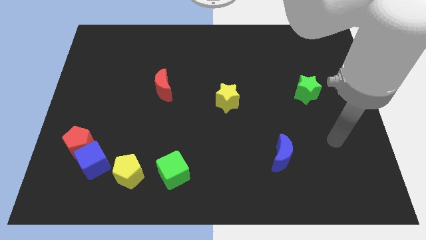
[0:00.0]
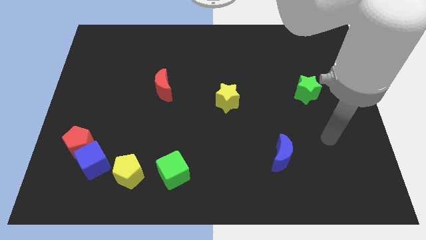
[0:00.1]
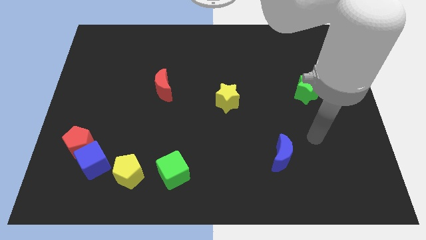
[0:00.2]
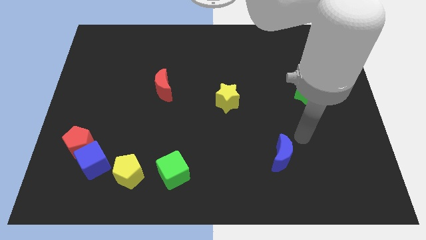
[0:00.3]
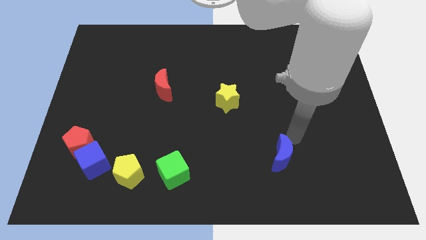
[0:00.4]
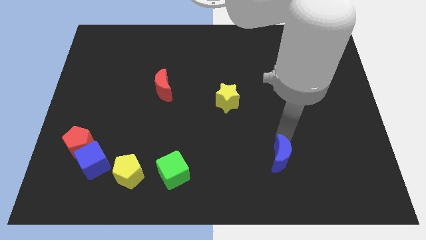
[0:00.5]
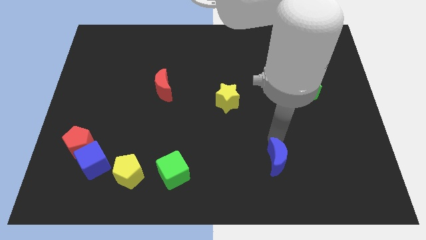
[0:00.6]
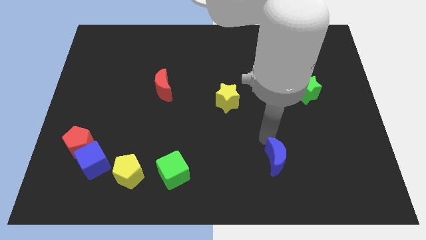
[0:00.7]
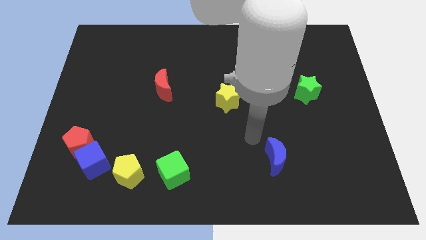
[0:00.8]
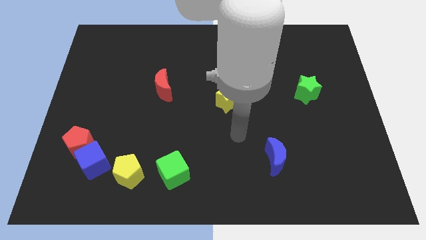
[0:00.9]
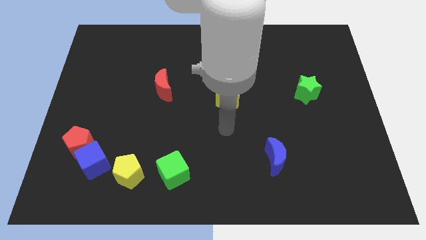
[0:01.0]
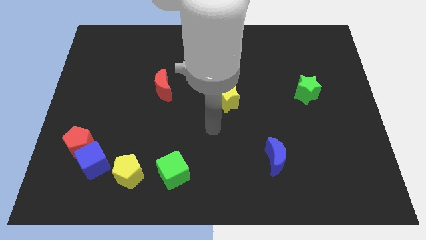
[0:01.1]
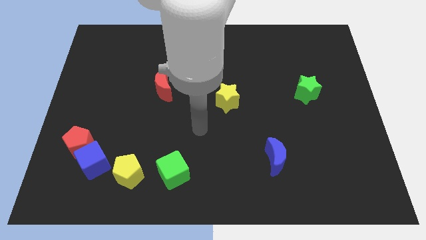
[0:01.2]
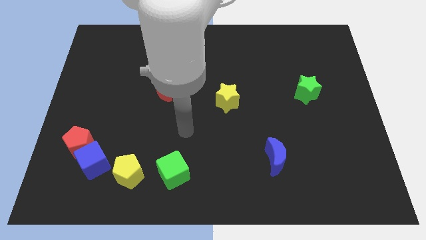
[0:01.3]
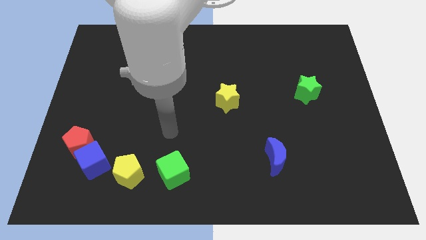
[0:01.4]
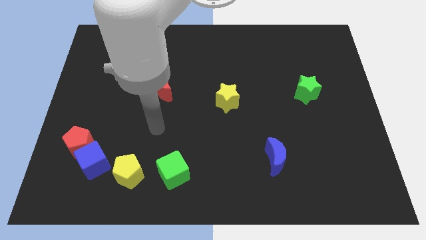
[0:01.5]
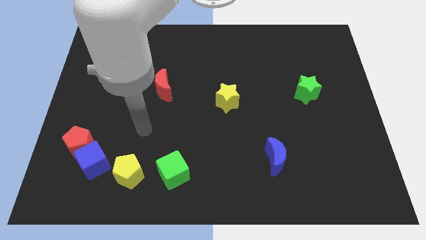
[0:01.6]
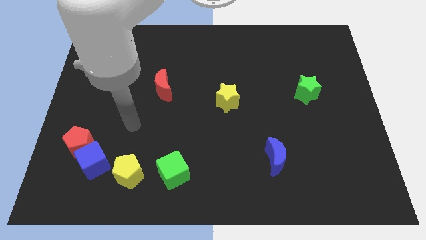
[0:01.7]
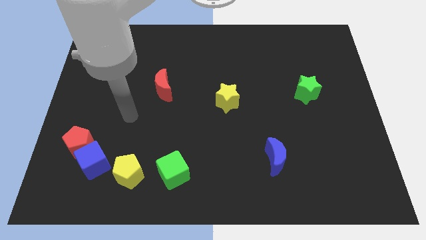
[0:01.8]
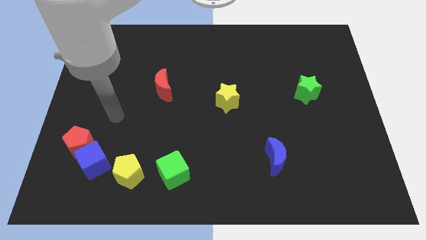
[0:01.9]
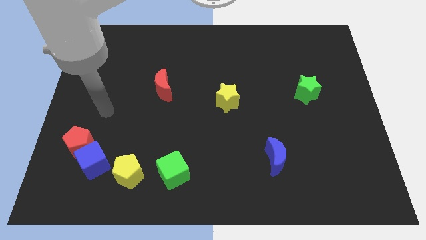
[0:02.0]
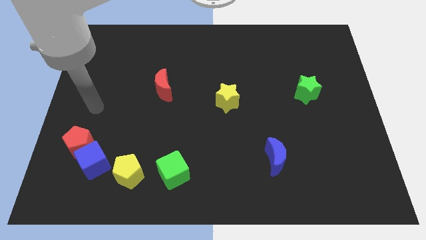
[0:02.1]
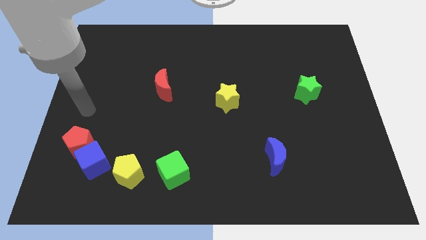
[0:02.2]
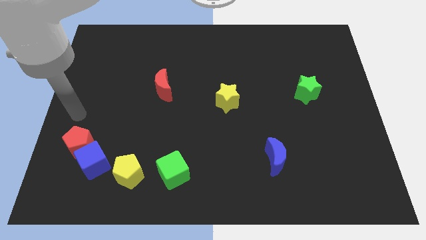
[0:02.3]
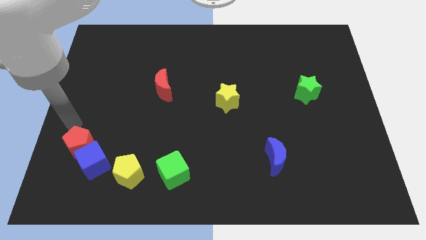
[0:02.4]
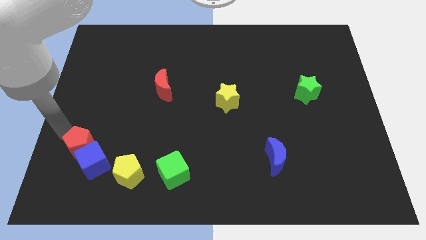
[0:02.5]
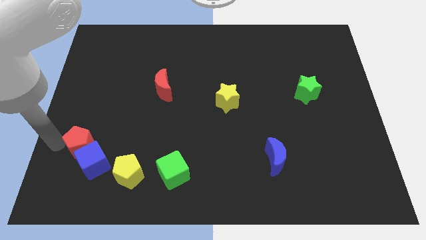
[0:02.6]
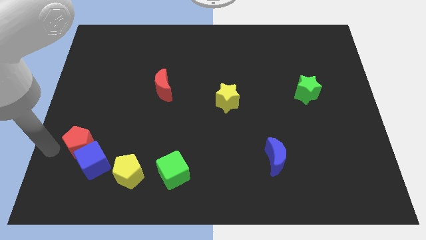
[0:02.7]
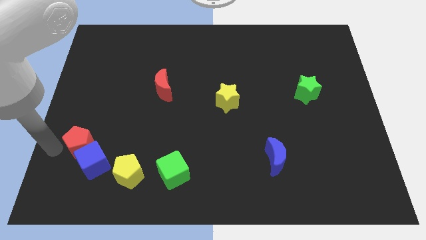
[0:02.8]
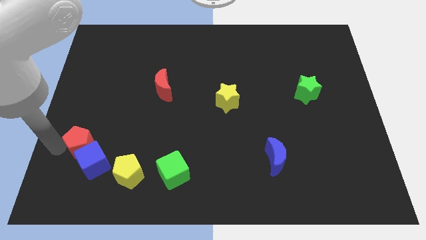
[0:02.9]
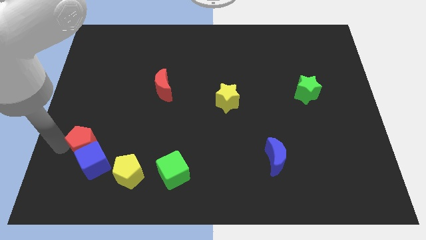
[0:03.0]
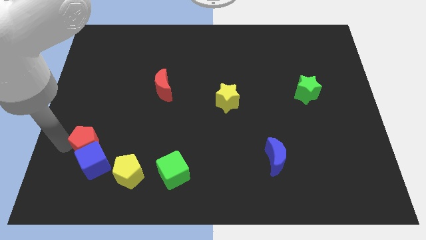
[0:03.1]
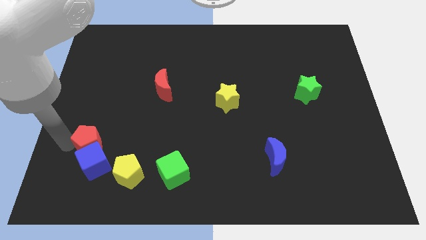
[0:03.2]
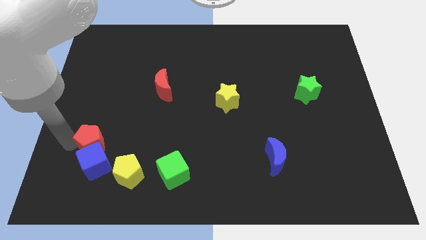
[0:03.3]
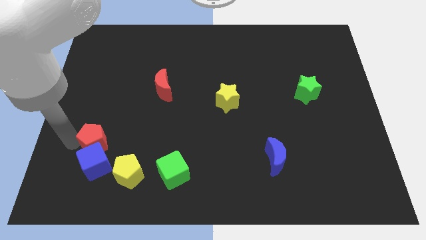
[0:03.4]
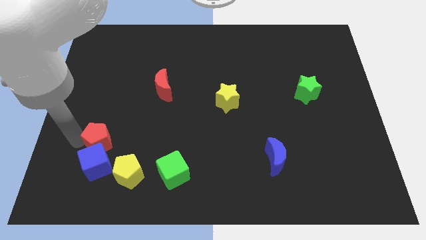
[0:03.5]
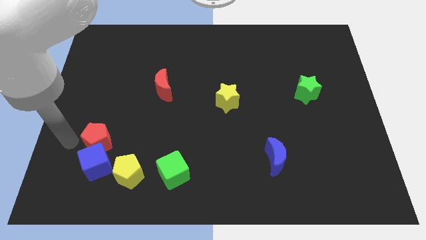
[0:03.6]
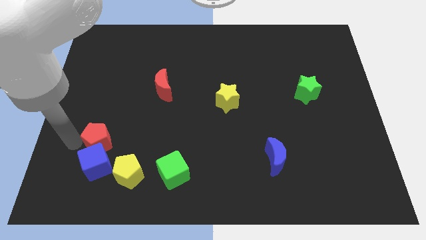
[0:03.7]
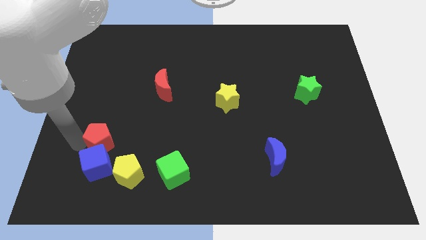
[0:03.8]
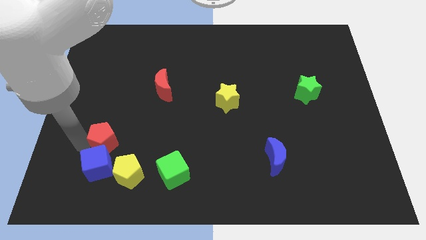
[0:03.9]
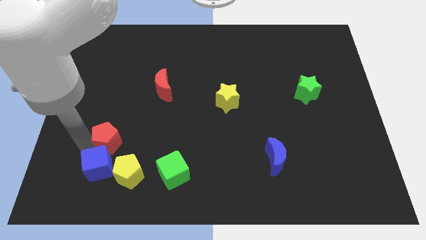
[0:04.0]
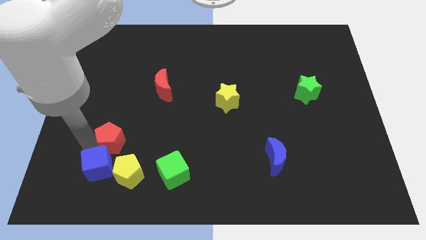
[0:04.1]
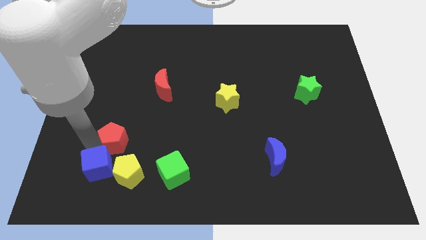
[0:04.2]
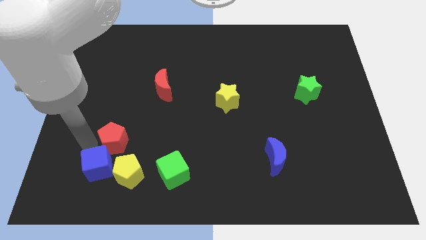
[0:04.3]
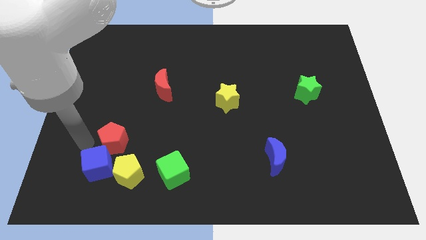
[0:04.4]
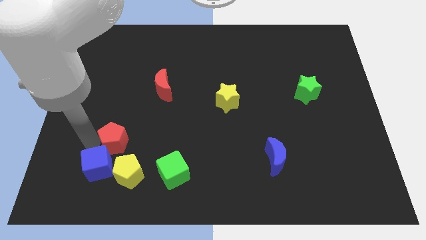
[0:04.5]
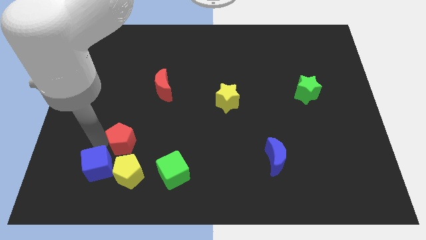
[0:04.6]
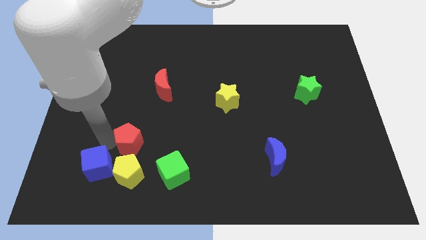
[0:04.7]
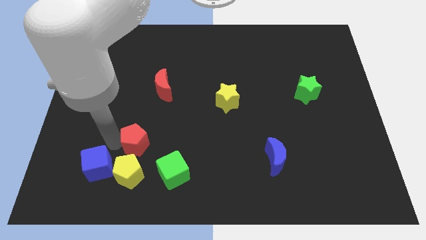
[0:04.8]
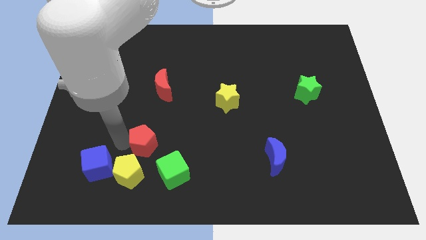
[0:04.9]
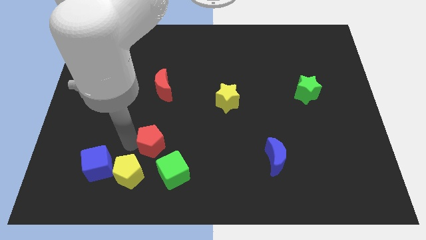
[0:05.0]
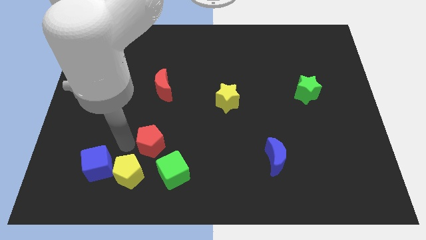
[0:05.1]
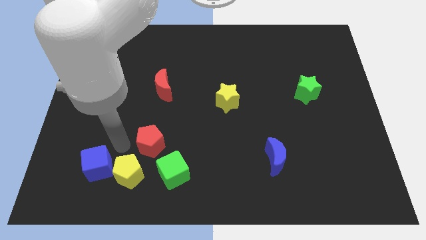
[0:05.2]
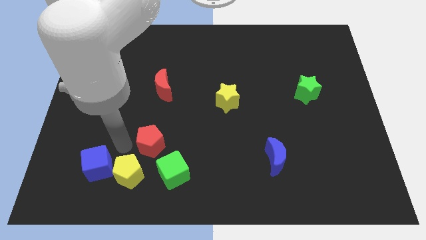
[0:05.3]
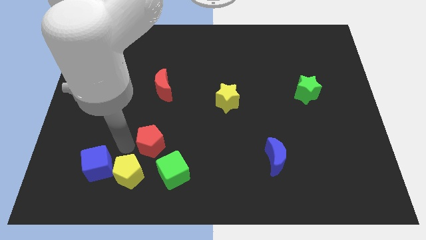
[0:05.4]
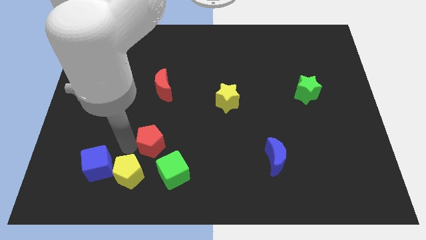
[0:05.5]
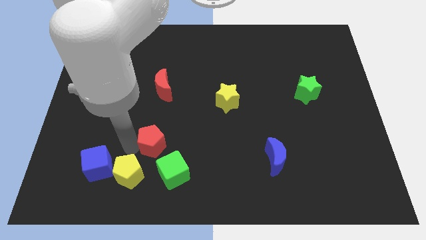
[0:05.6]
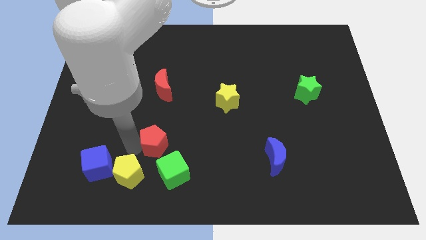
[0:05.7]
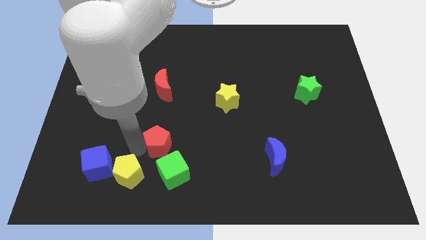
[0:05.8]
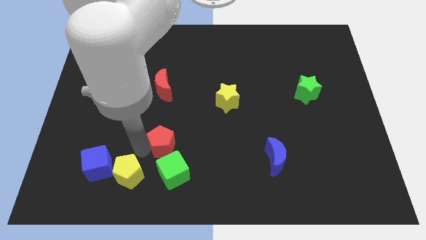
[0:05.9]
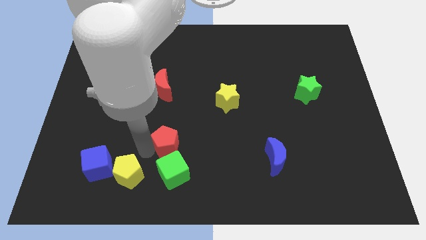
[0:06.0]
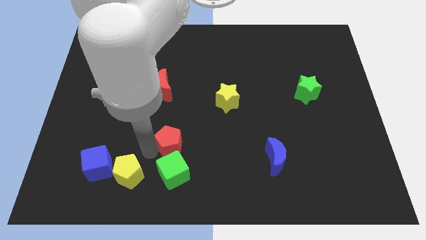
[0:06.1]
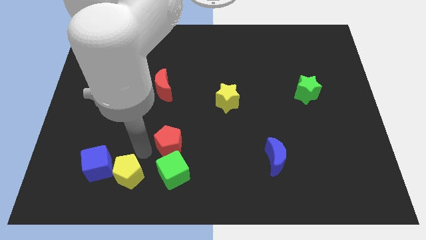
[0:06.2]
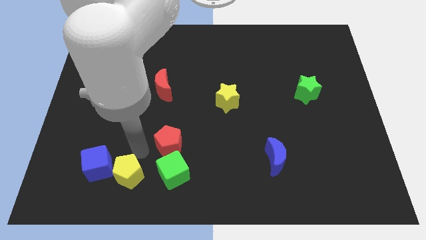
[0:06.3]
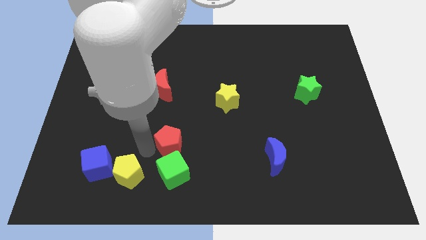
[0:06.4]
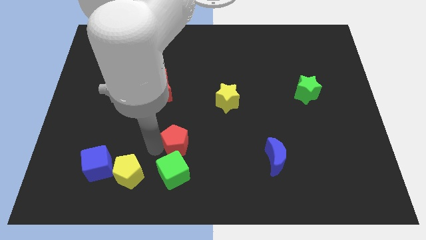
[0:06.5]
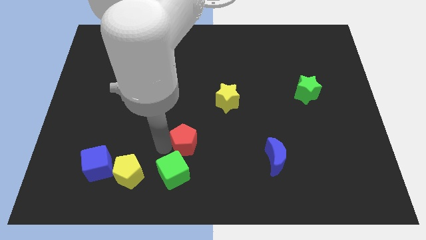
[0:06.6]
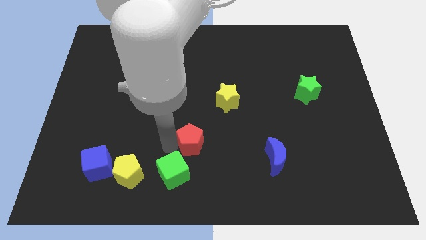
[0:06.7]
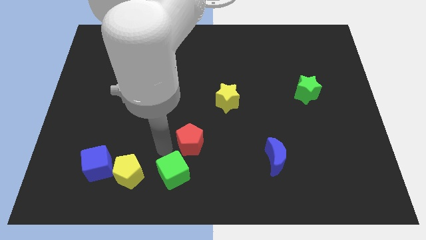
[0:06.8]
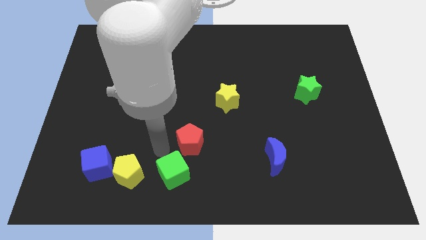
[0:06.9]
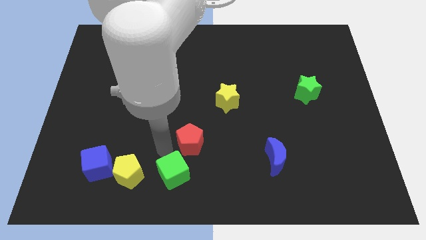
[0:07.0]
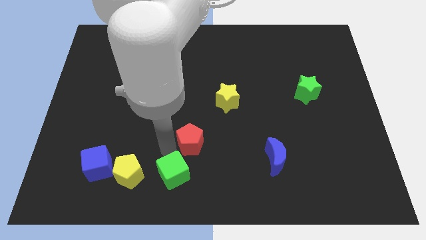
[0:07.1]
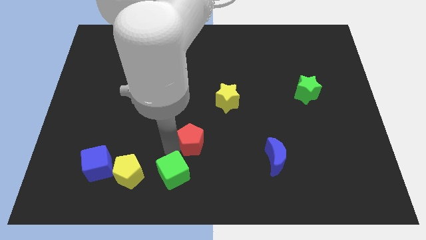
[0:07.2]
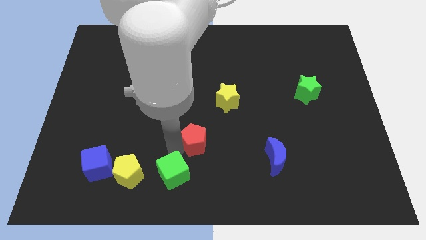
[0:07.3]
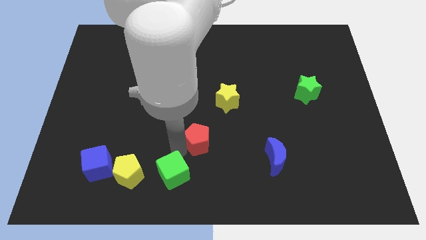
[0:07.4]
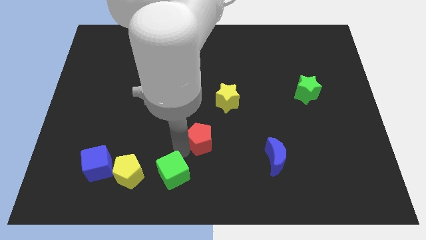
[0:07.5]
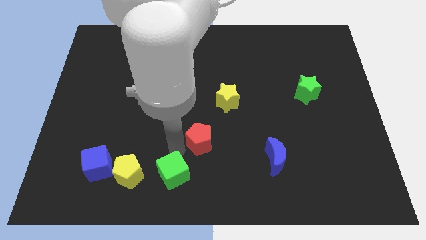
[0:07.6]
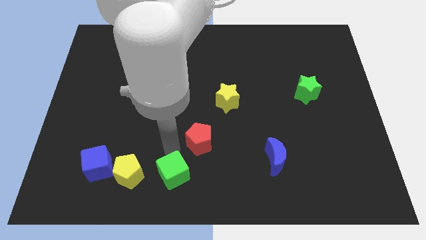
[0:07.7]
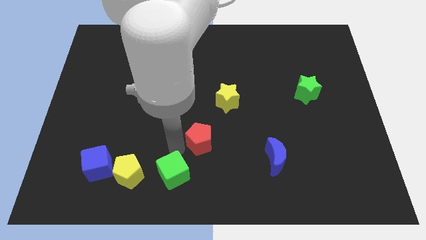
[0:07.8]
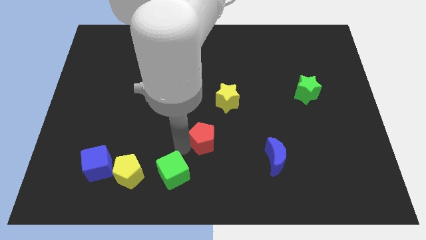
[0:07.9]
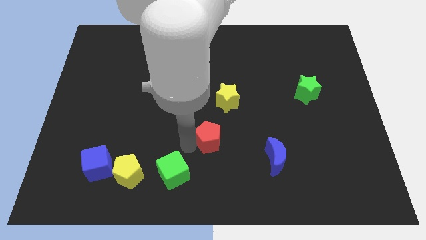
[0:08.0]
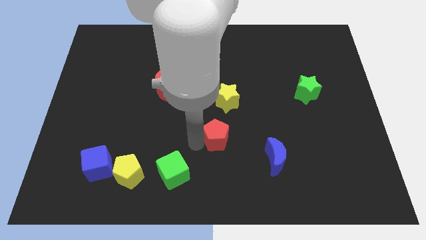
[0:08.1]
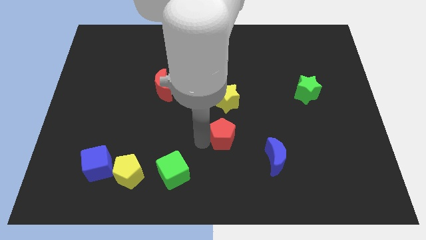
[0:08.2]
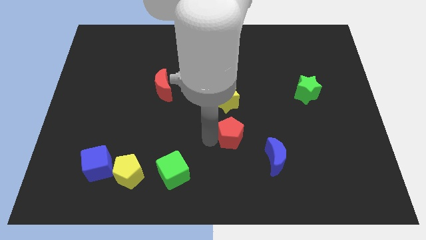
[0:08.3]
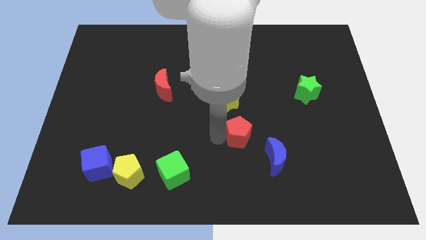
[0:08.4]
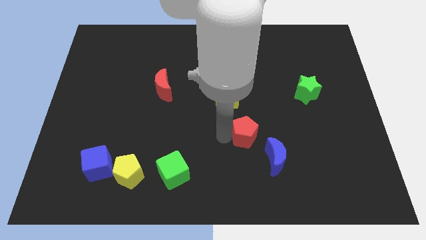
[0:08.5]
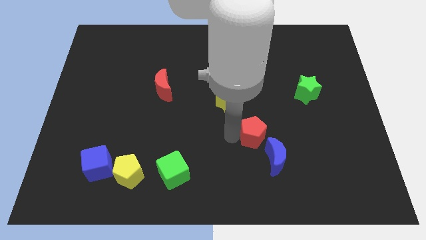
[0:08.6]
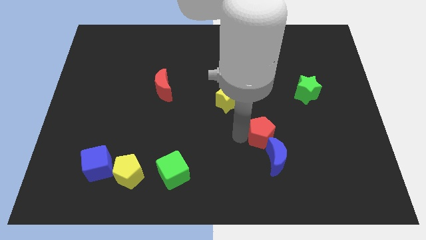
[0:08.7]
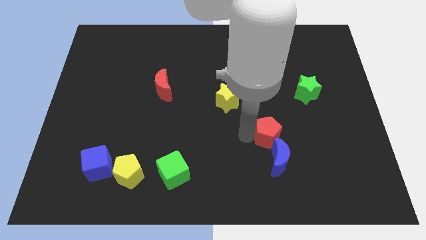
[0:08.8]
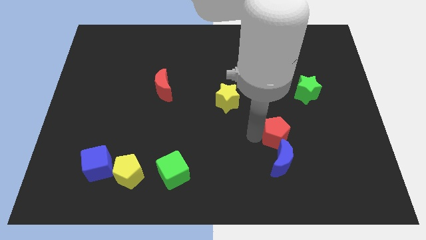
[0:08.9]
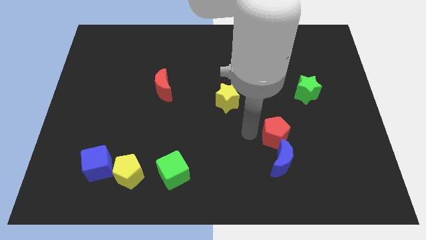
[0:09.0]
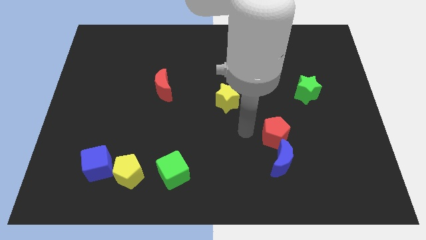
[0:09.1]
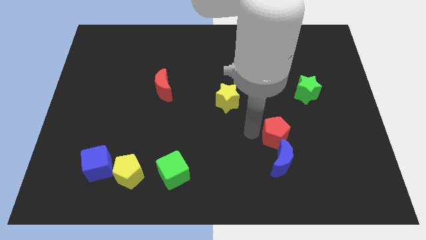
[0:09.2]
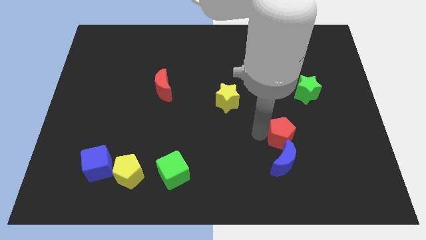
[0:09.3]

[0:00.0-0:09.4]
push the red pentagon to the top right side of the blue moon
